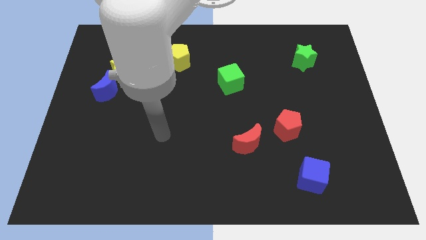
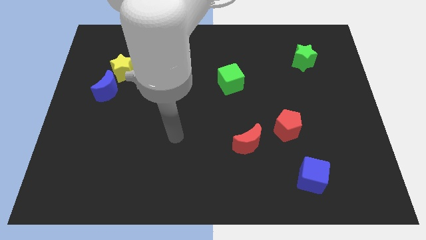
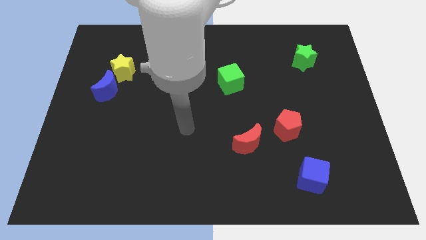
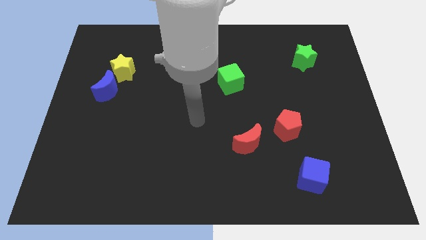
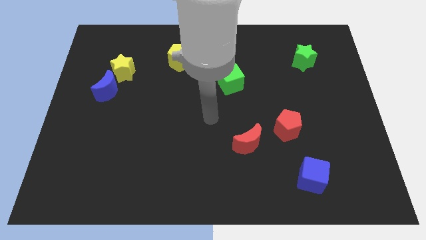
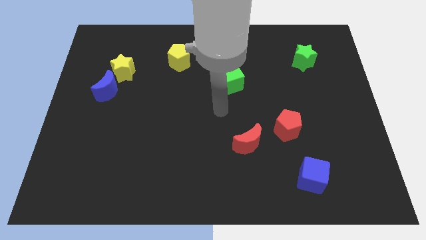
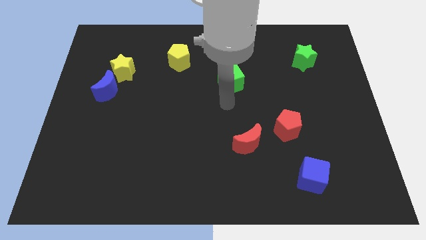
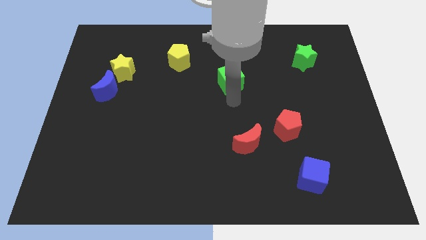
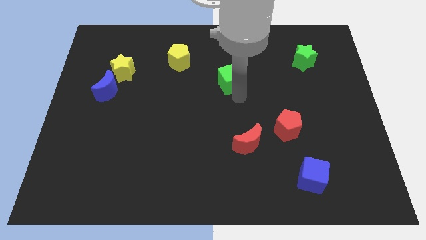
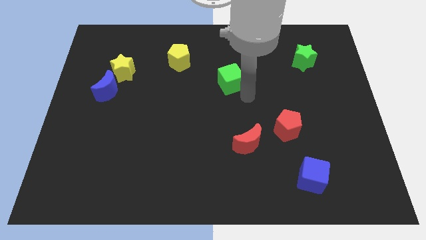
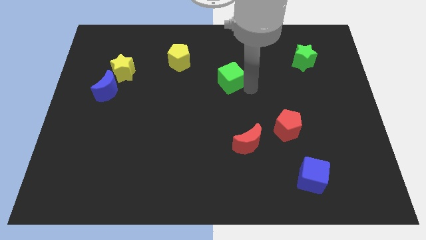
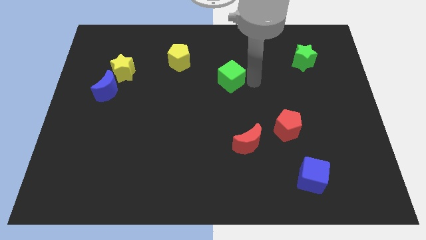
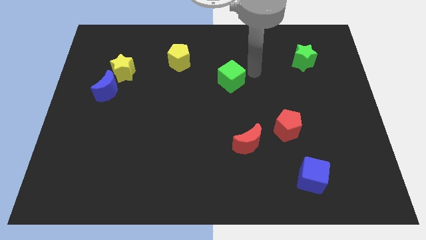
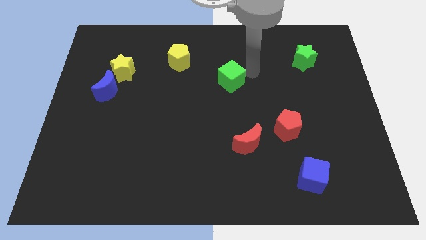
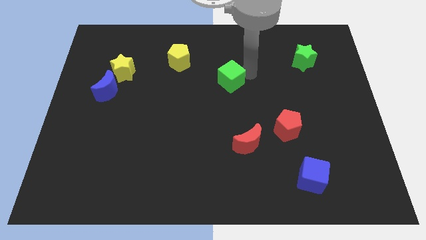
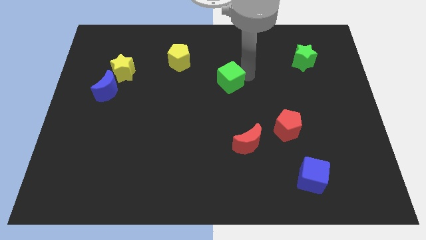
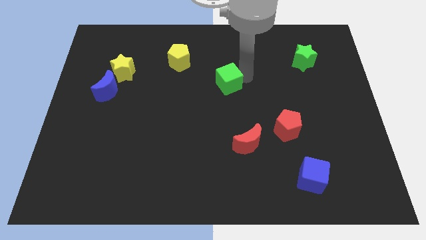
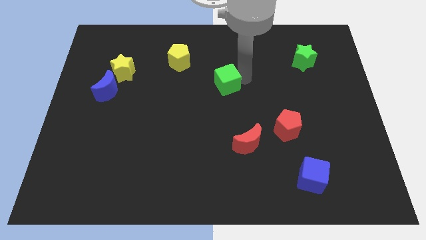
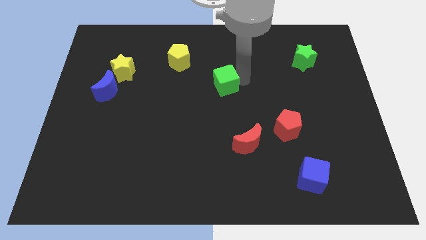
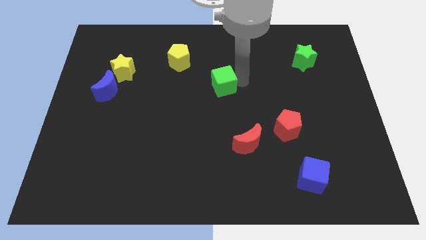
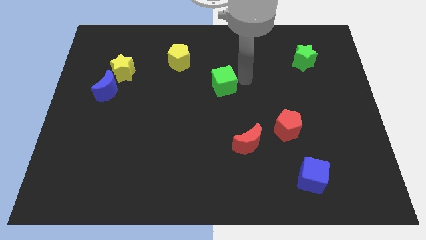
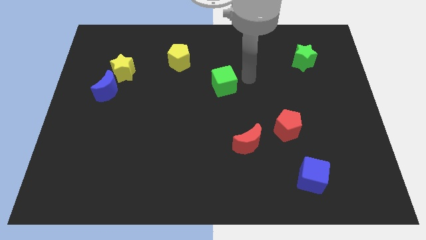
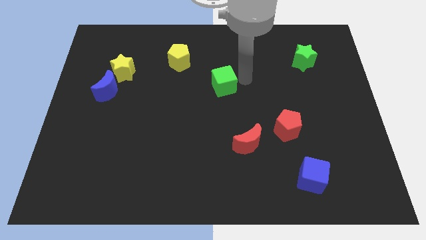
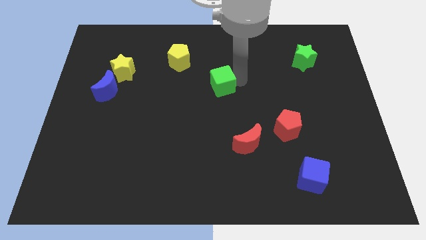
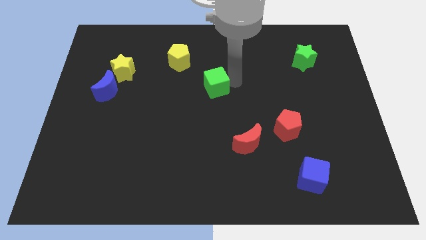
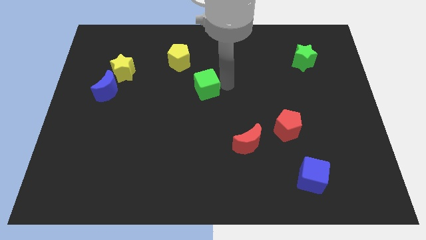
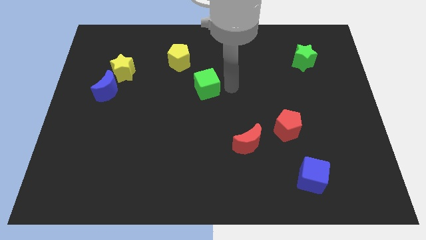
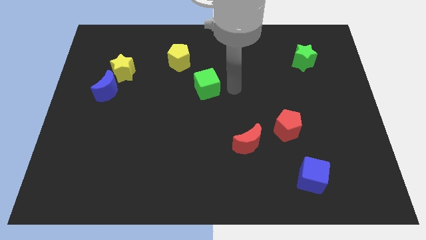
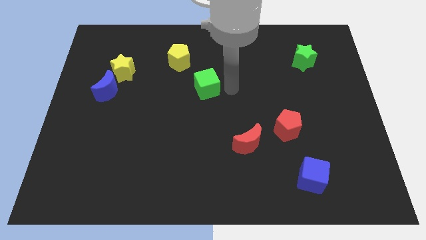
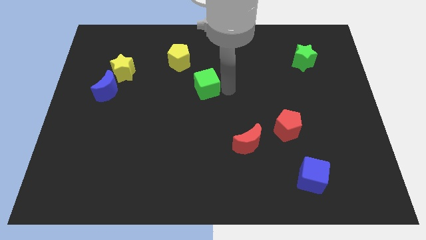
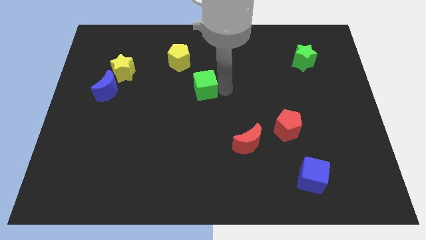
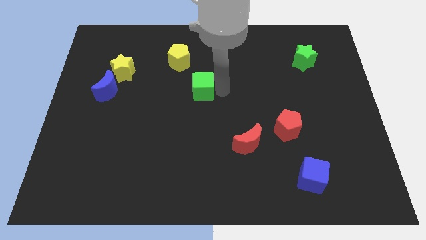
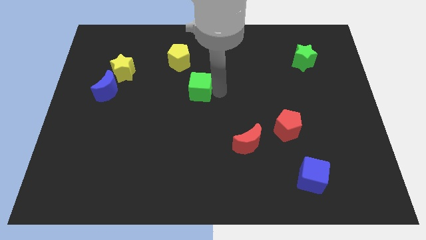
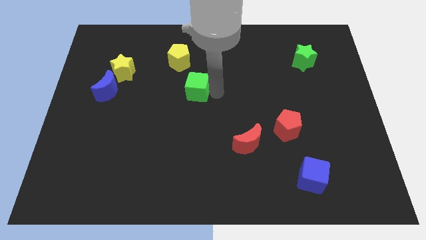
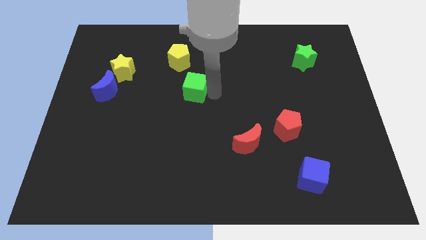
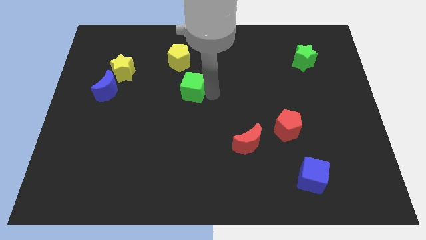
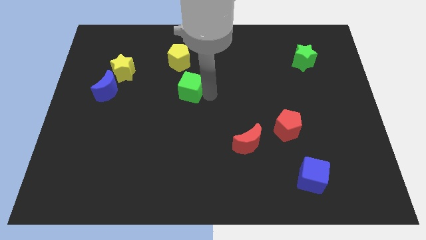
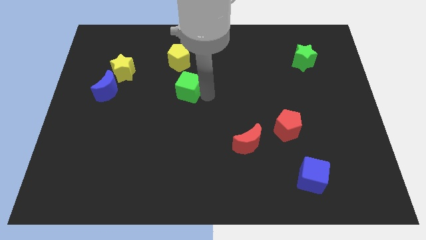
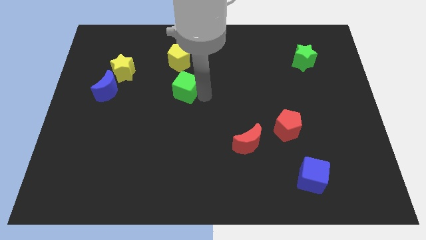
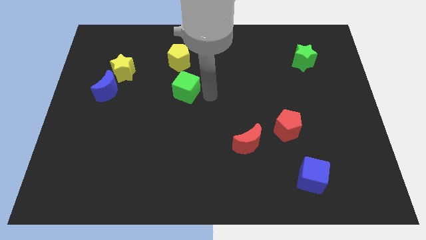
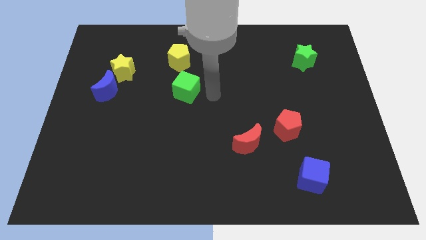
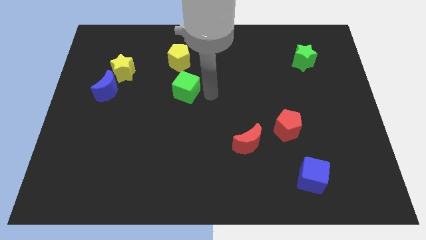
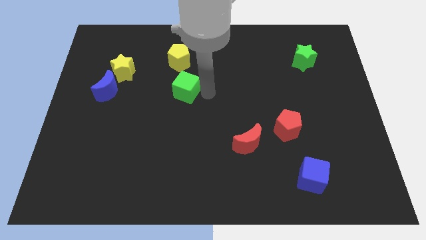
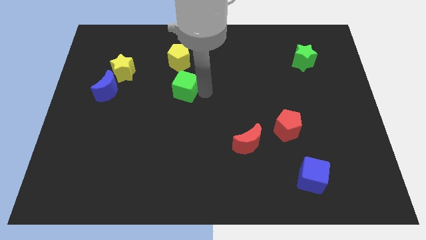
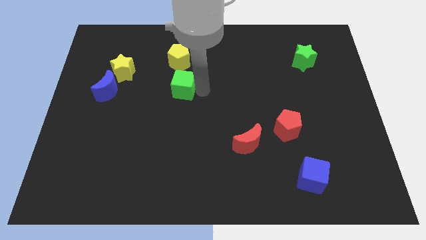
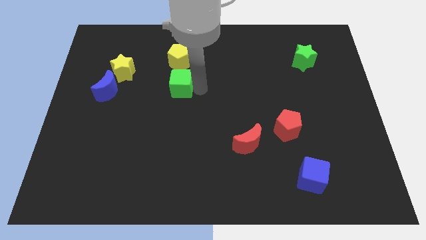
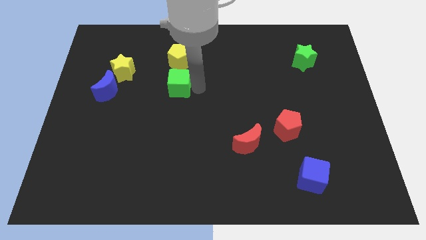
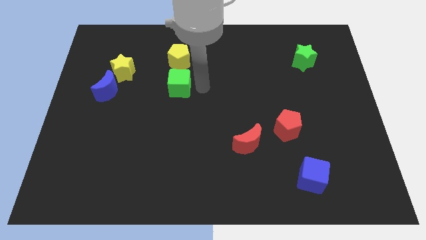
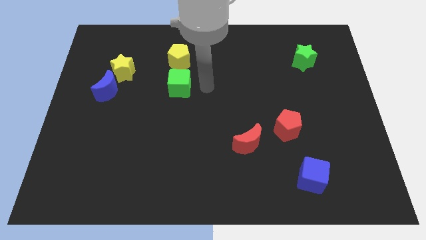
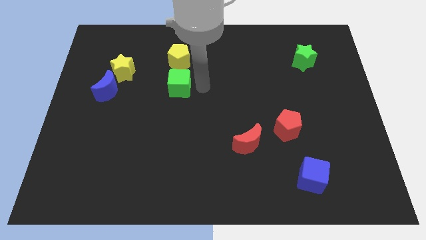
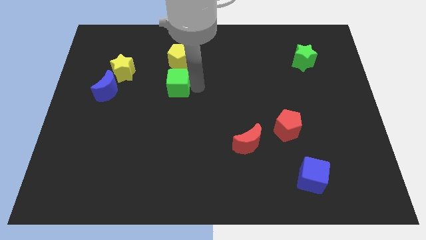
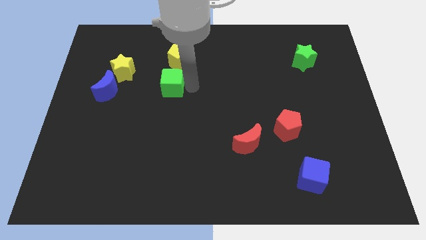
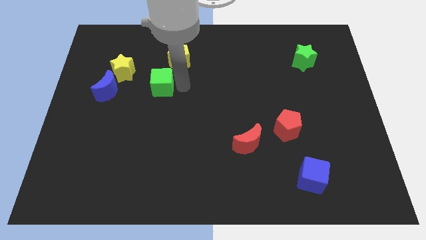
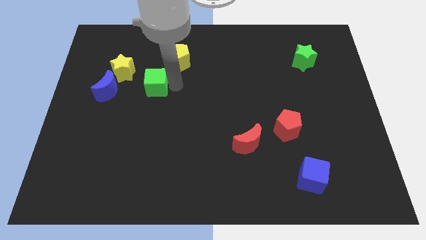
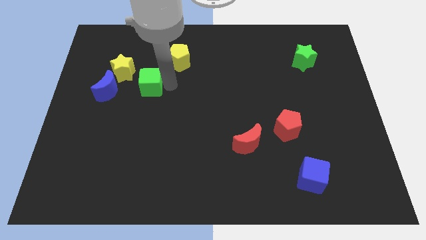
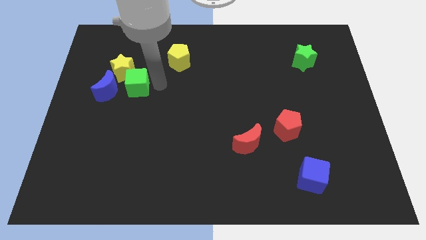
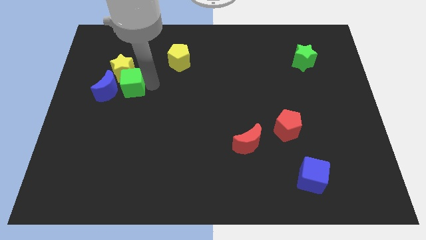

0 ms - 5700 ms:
put the green cube towards the blue moon

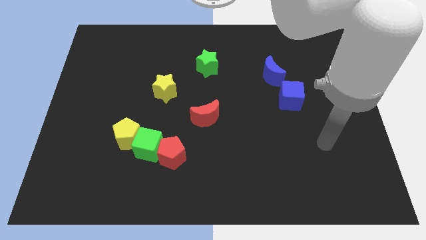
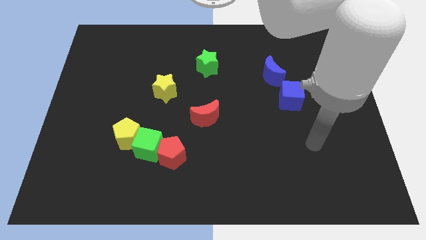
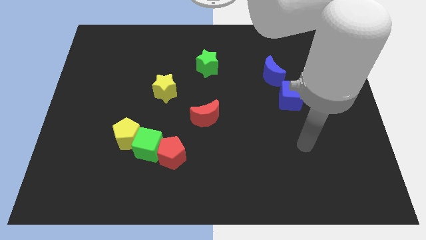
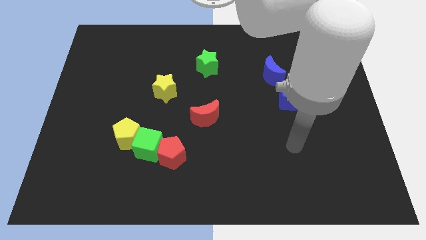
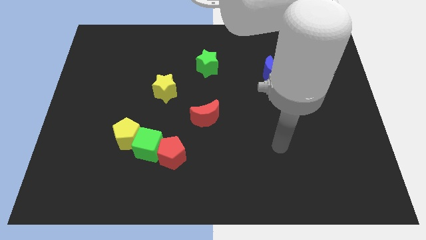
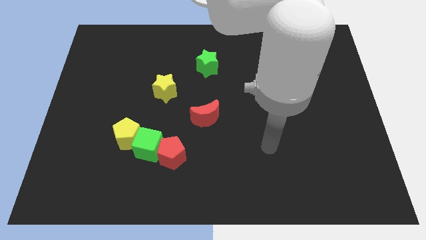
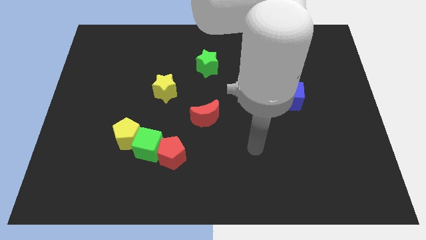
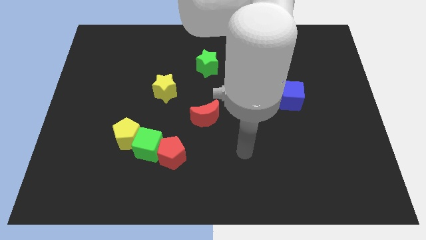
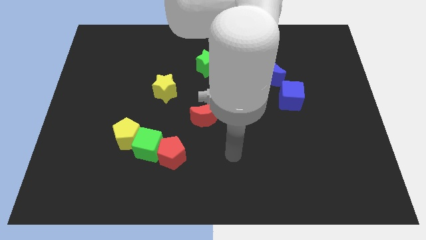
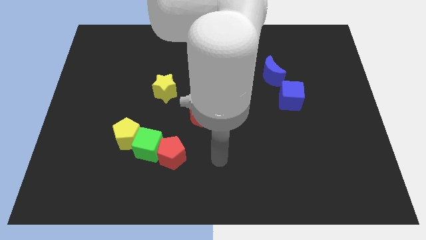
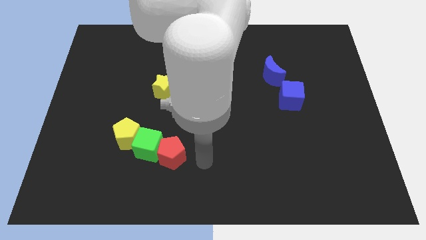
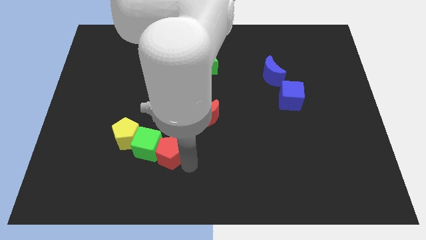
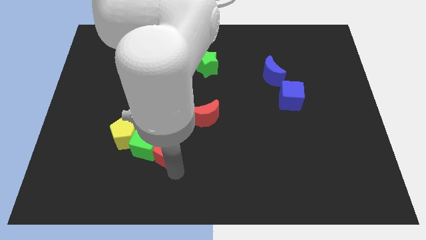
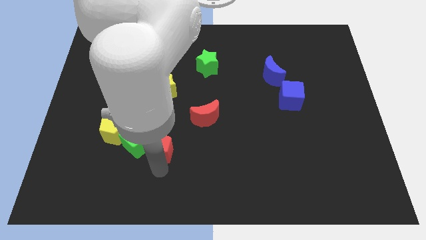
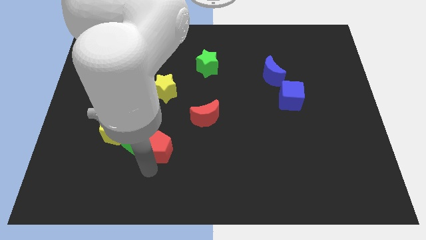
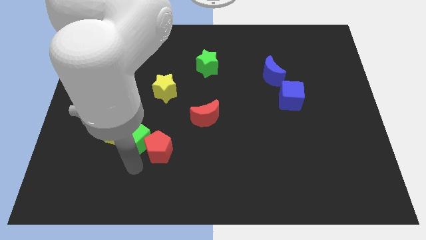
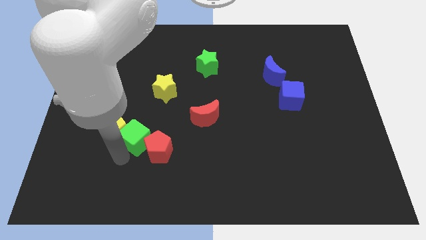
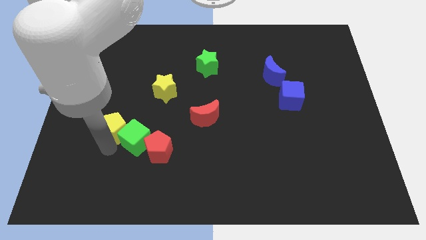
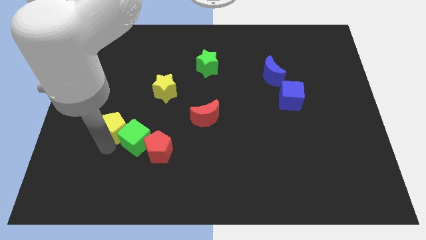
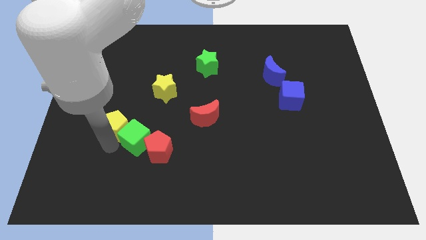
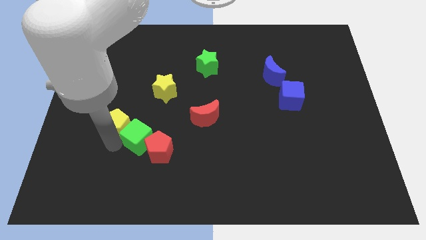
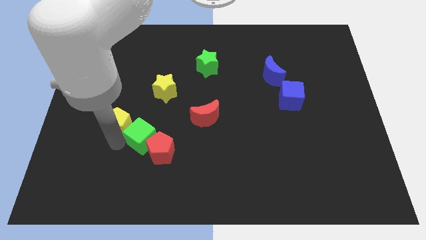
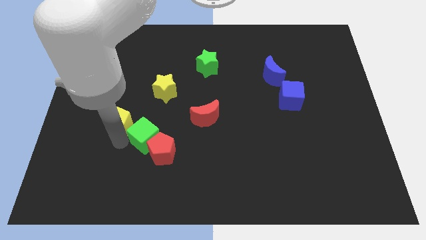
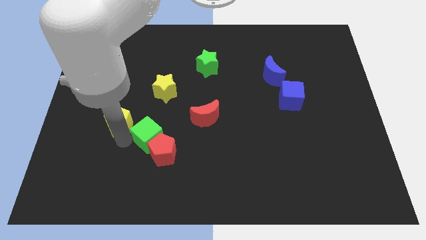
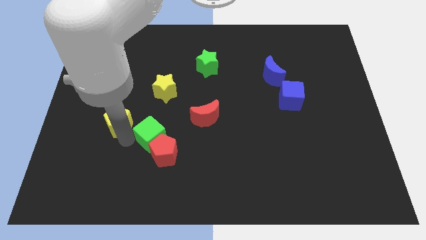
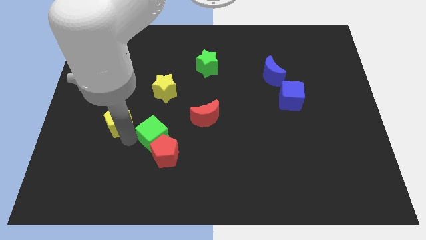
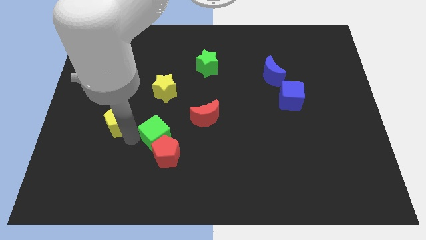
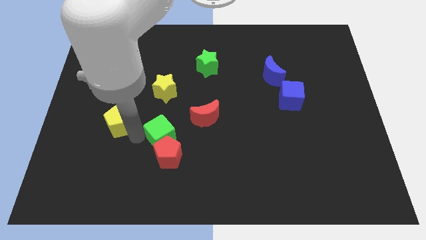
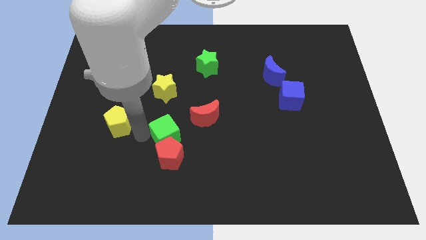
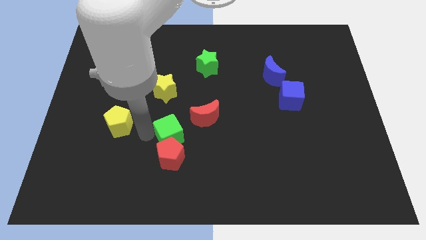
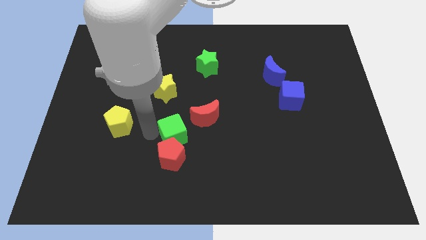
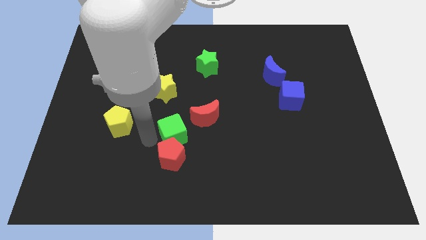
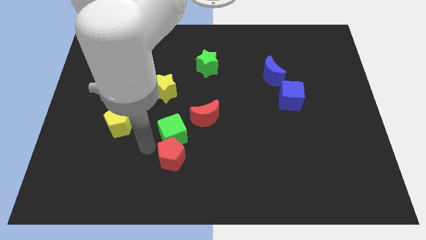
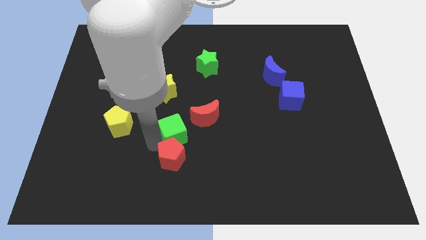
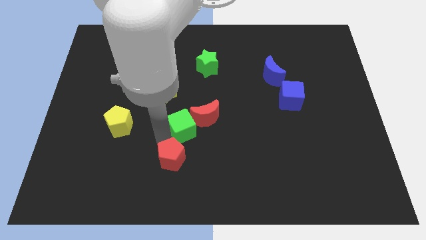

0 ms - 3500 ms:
push the green cube next to the red moon
